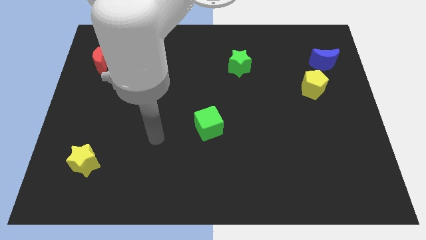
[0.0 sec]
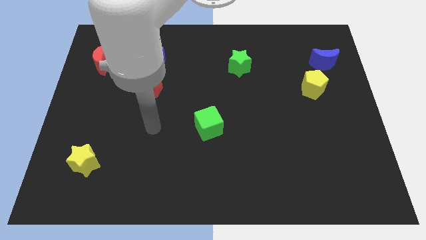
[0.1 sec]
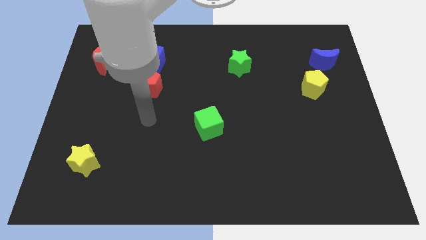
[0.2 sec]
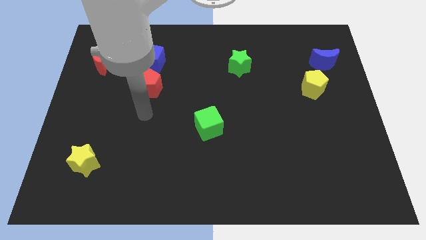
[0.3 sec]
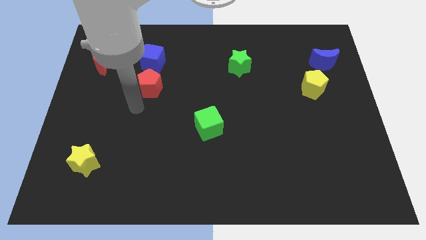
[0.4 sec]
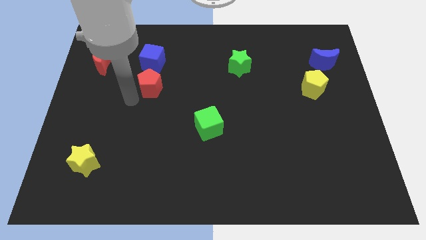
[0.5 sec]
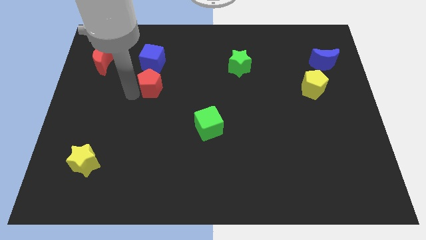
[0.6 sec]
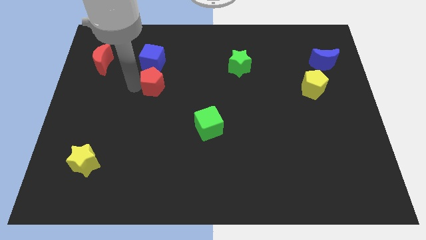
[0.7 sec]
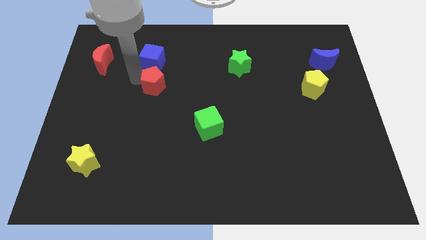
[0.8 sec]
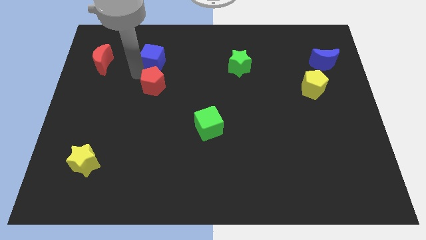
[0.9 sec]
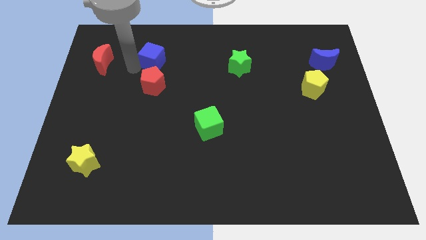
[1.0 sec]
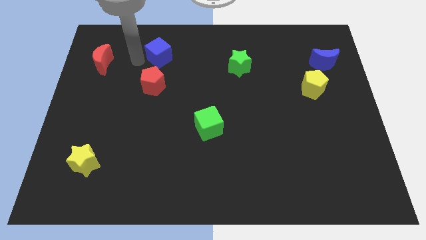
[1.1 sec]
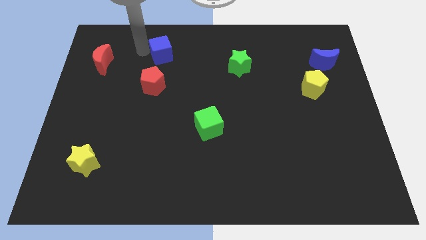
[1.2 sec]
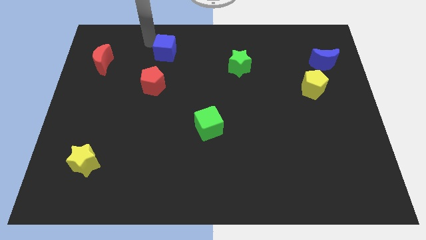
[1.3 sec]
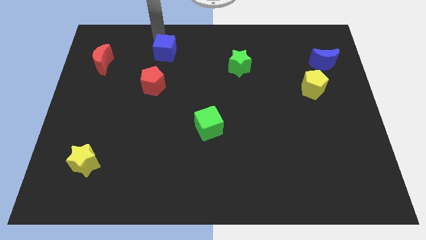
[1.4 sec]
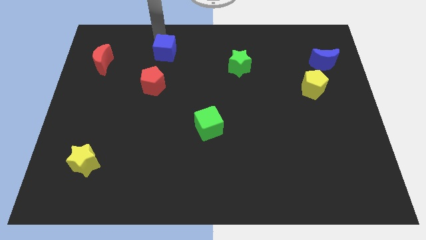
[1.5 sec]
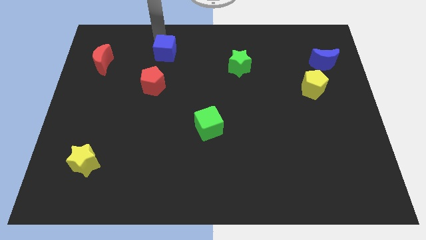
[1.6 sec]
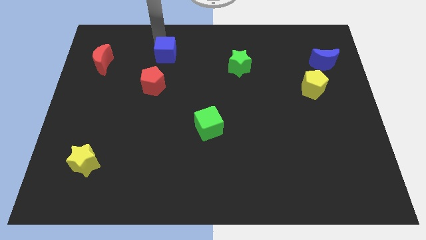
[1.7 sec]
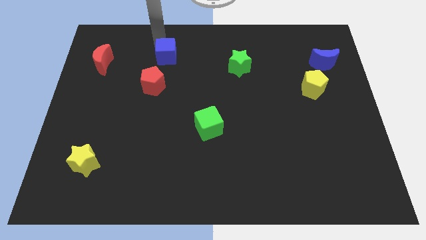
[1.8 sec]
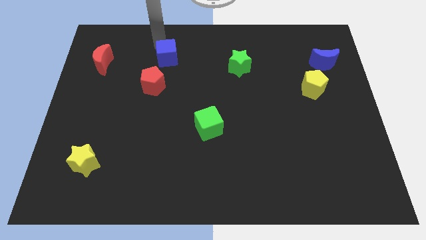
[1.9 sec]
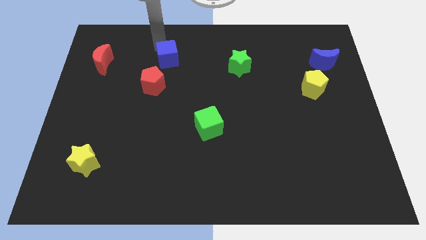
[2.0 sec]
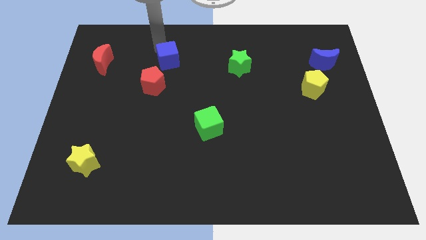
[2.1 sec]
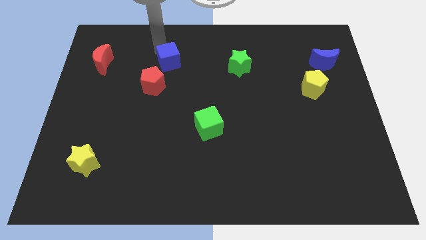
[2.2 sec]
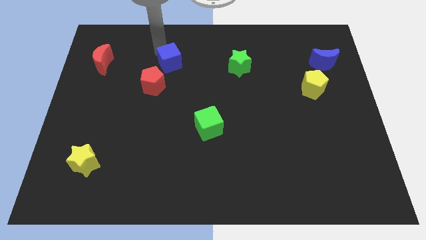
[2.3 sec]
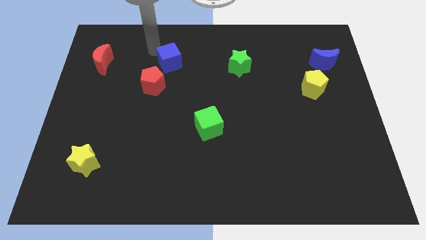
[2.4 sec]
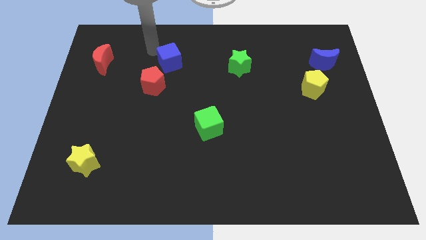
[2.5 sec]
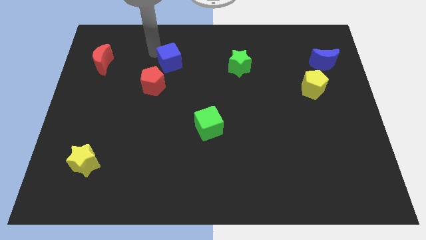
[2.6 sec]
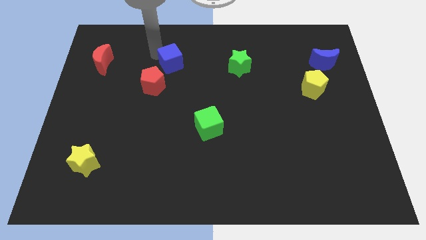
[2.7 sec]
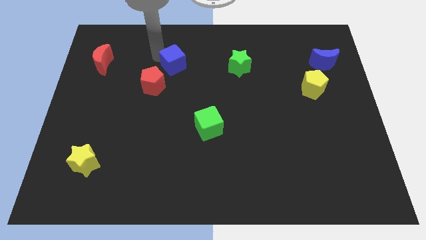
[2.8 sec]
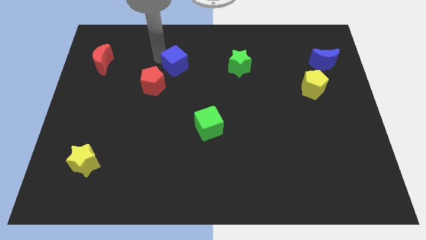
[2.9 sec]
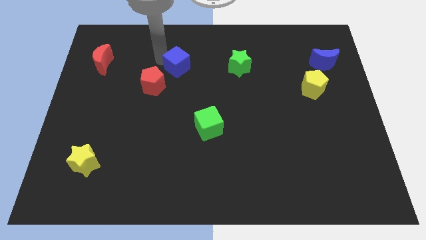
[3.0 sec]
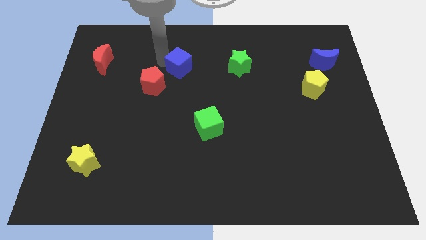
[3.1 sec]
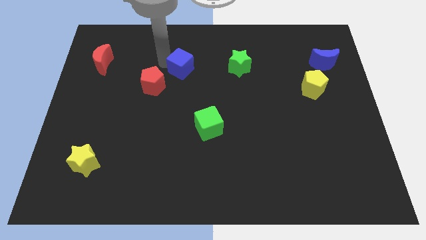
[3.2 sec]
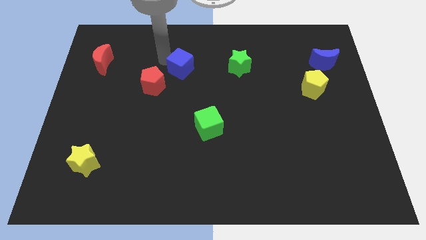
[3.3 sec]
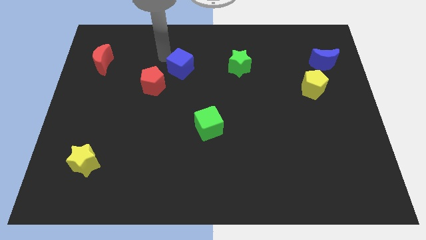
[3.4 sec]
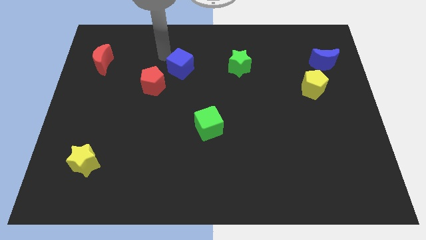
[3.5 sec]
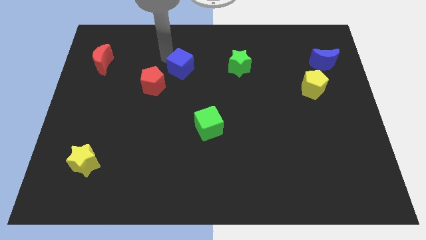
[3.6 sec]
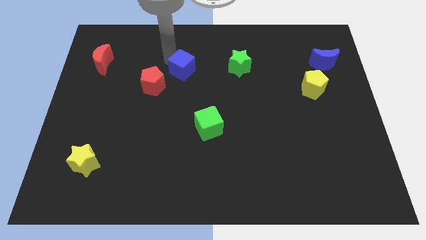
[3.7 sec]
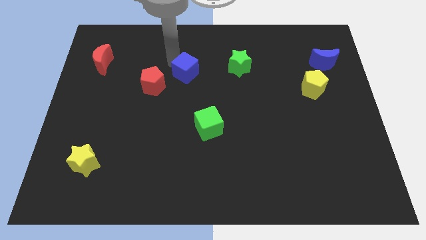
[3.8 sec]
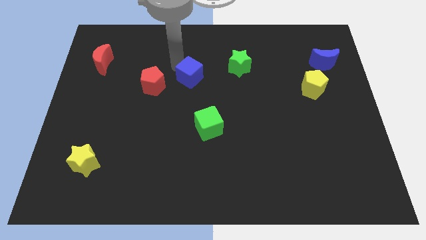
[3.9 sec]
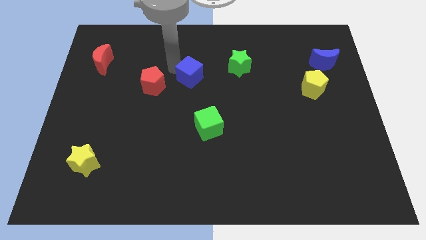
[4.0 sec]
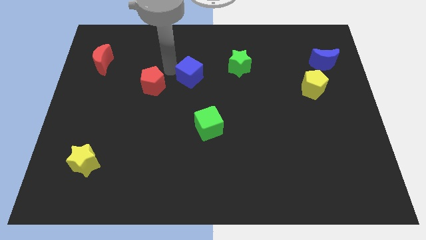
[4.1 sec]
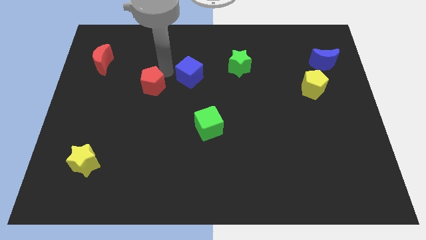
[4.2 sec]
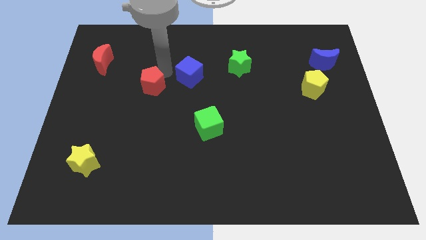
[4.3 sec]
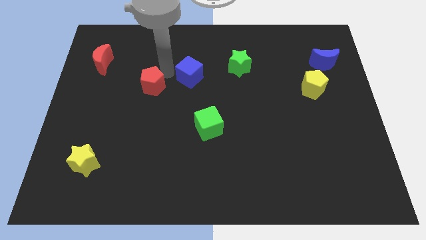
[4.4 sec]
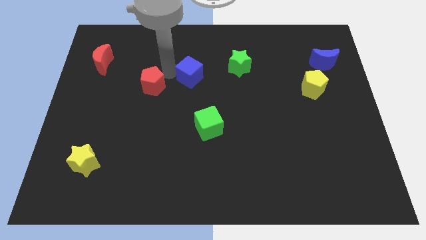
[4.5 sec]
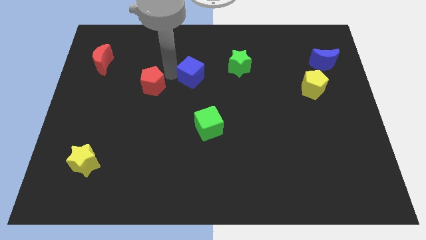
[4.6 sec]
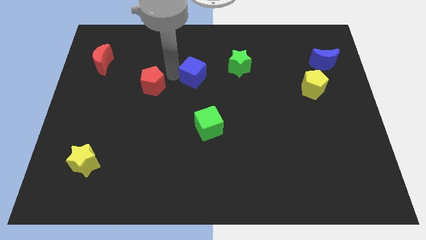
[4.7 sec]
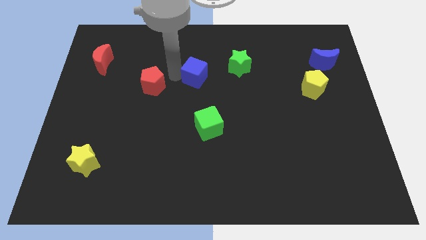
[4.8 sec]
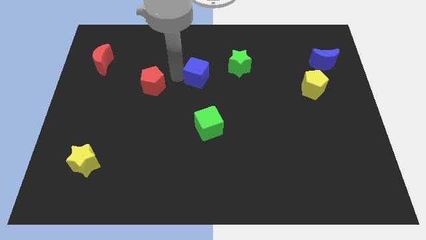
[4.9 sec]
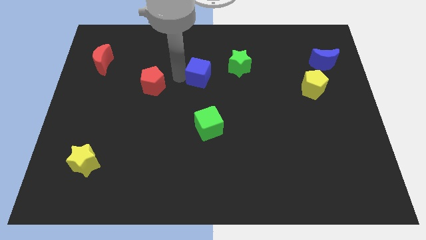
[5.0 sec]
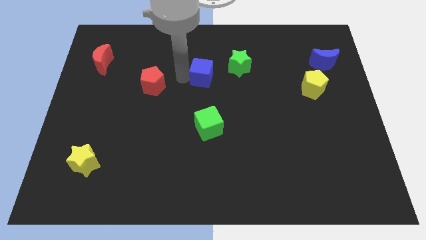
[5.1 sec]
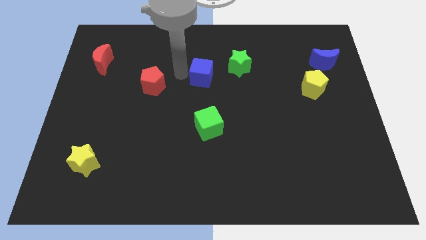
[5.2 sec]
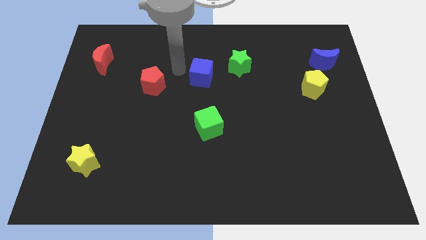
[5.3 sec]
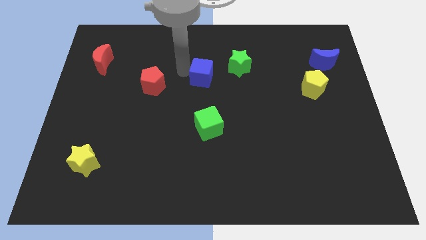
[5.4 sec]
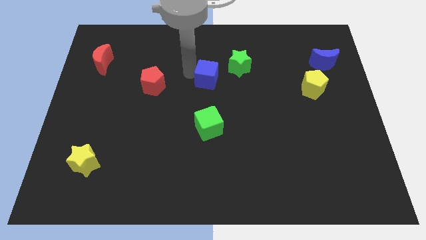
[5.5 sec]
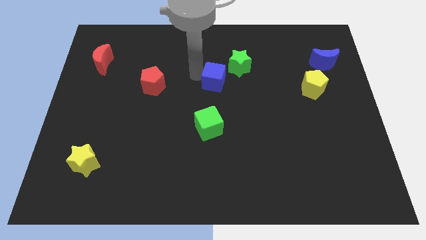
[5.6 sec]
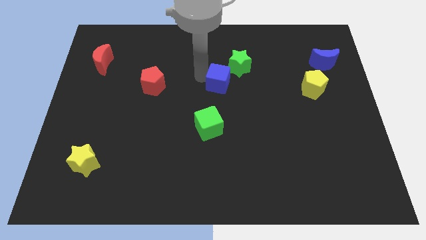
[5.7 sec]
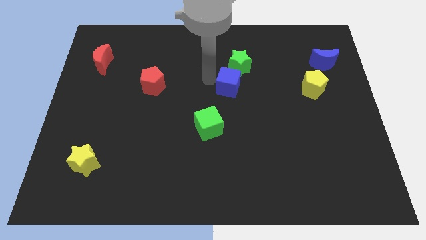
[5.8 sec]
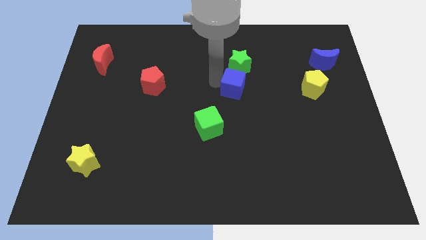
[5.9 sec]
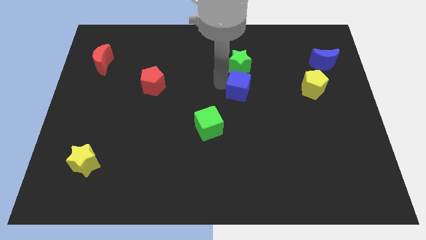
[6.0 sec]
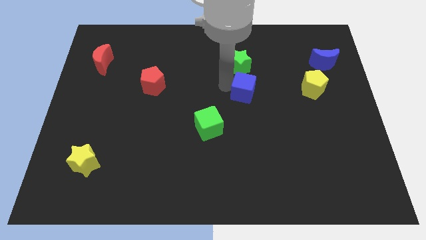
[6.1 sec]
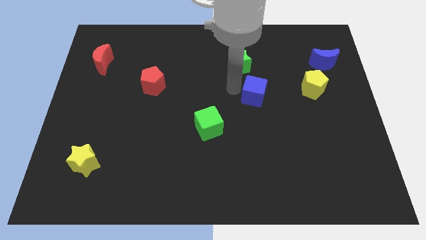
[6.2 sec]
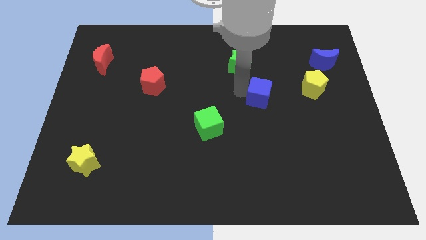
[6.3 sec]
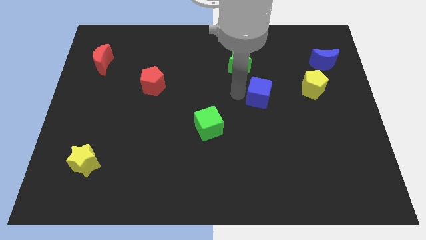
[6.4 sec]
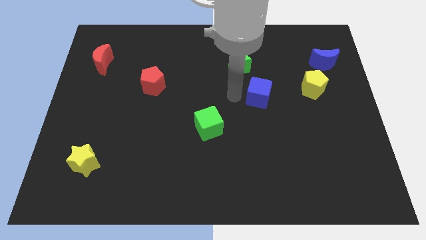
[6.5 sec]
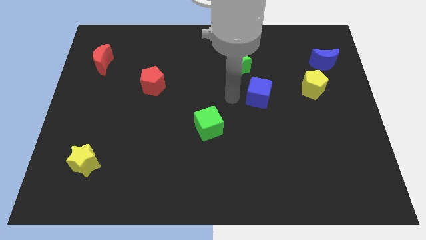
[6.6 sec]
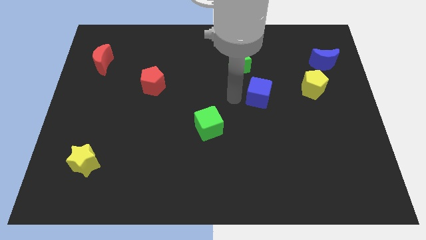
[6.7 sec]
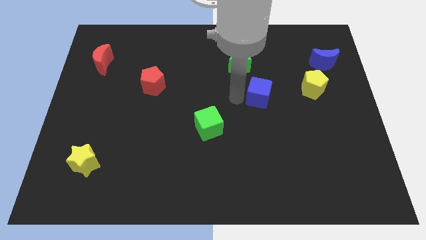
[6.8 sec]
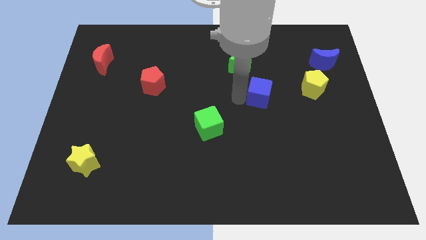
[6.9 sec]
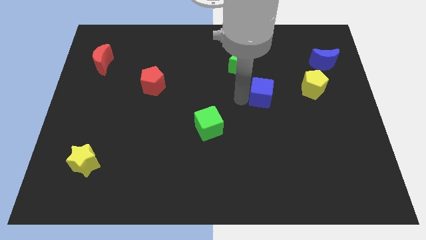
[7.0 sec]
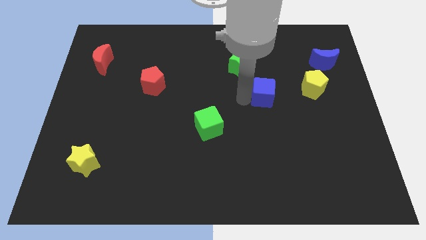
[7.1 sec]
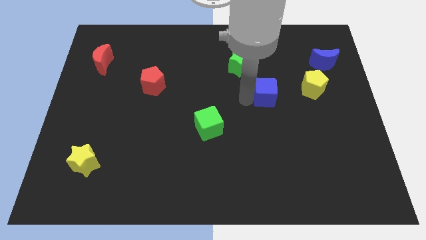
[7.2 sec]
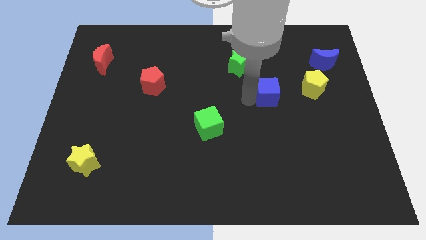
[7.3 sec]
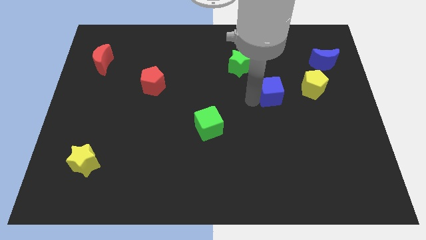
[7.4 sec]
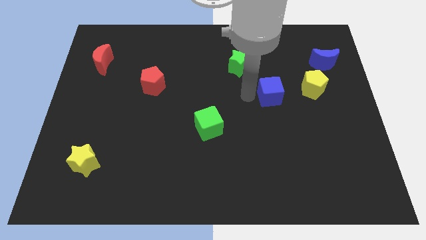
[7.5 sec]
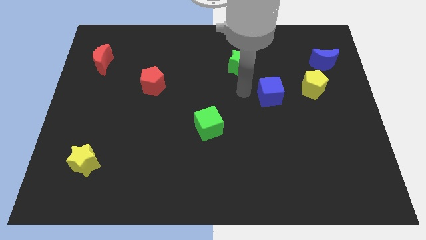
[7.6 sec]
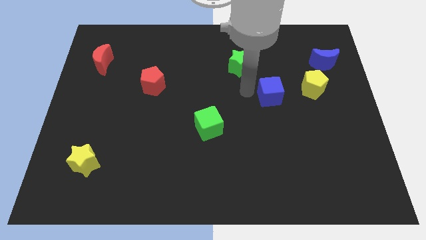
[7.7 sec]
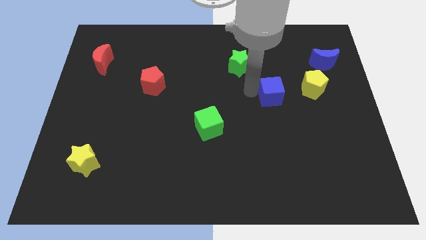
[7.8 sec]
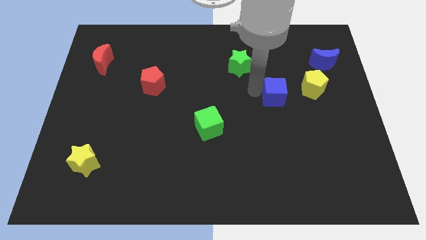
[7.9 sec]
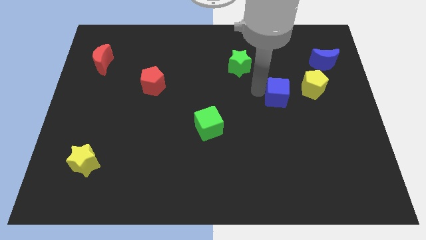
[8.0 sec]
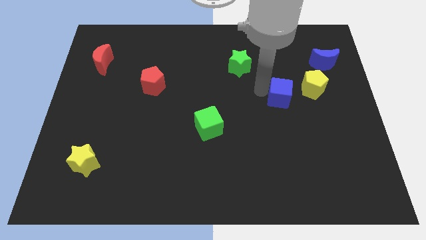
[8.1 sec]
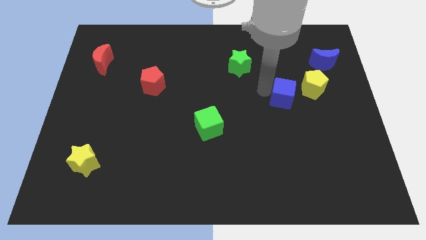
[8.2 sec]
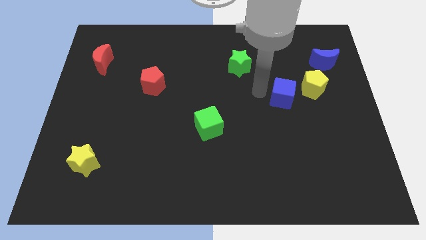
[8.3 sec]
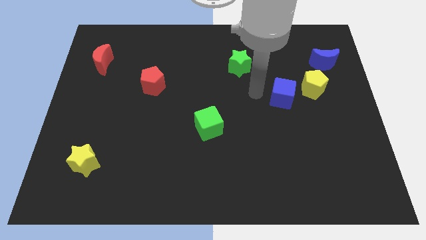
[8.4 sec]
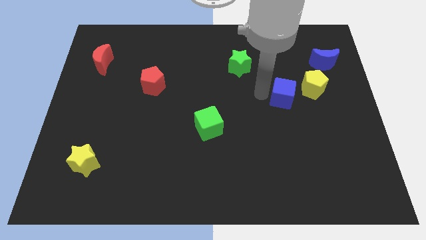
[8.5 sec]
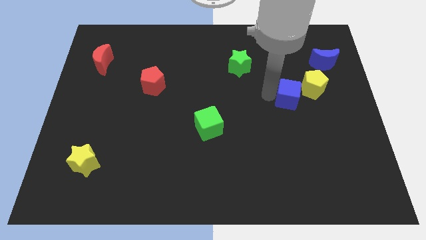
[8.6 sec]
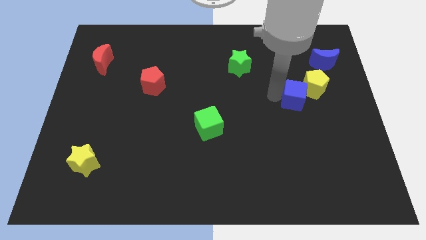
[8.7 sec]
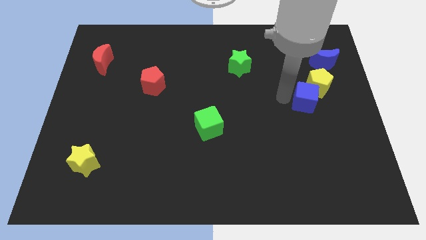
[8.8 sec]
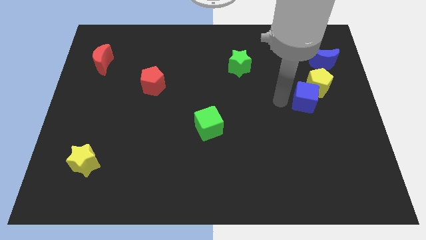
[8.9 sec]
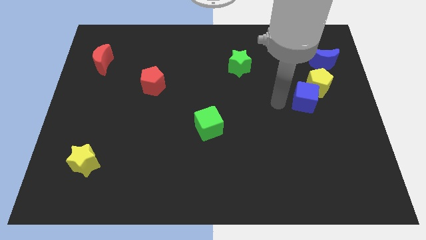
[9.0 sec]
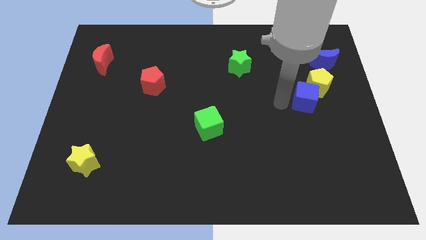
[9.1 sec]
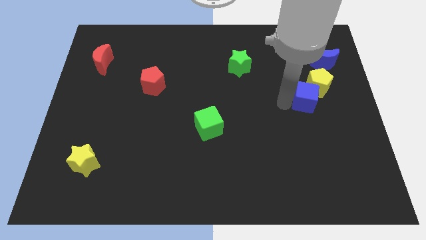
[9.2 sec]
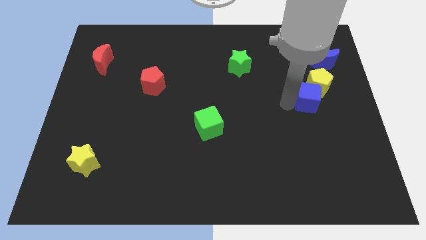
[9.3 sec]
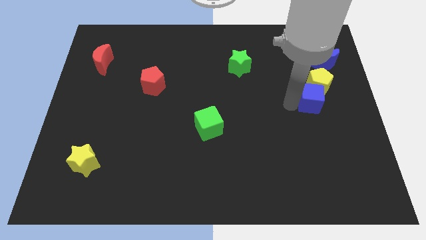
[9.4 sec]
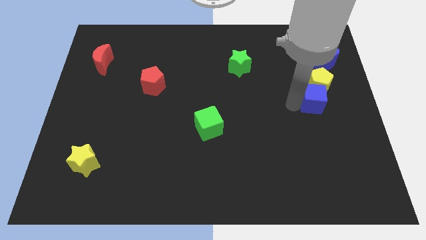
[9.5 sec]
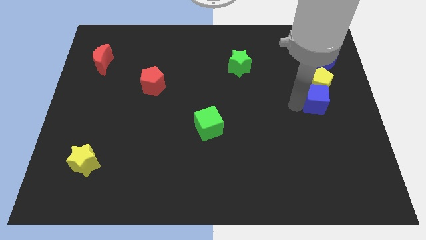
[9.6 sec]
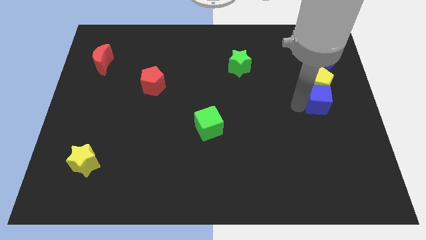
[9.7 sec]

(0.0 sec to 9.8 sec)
push the blue cube to the center right
